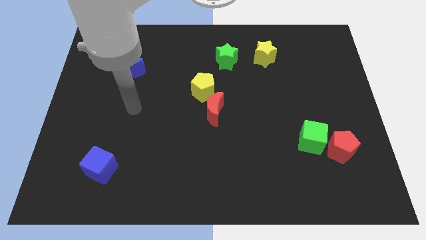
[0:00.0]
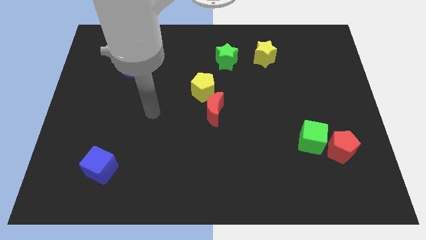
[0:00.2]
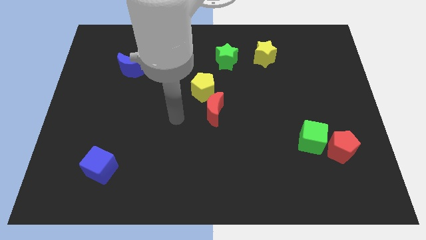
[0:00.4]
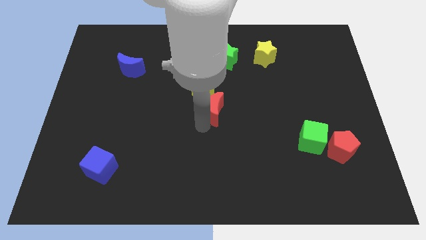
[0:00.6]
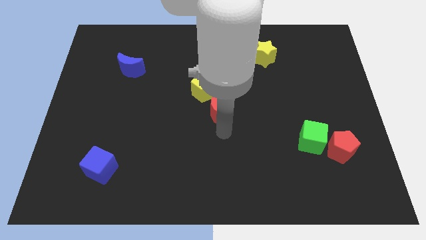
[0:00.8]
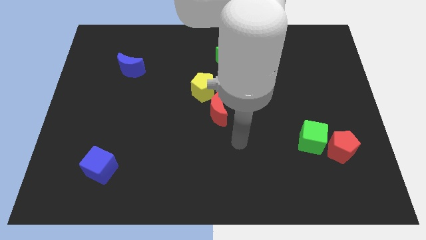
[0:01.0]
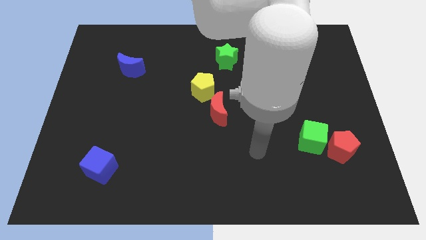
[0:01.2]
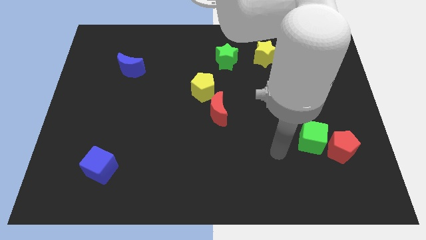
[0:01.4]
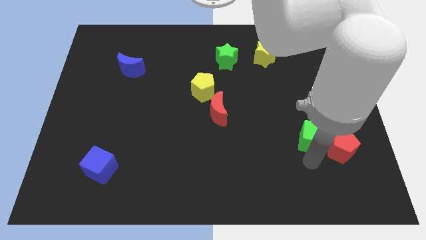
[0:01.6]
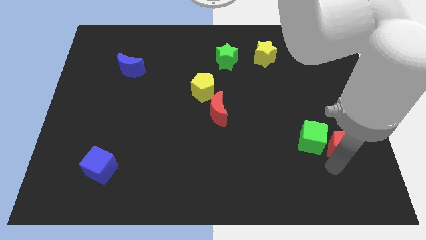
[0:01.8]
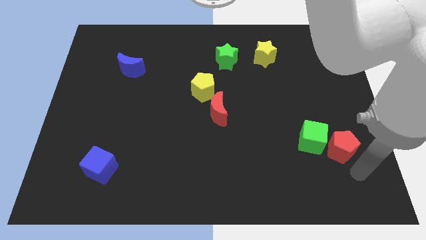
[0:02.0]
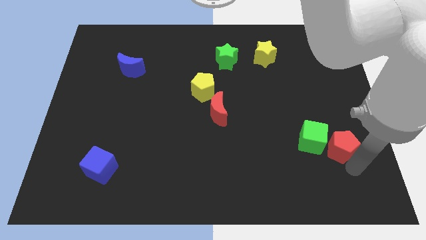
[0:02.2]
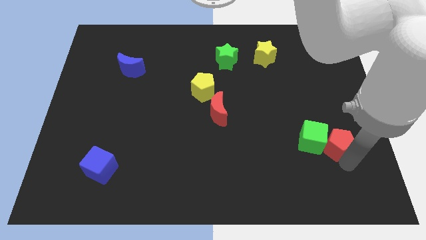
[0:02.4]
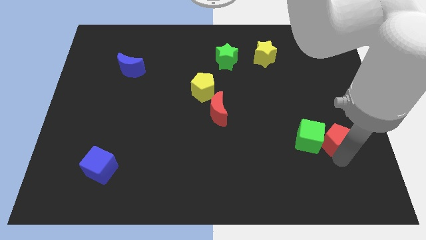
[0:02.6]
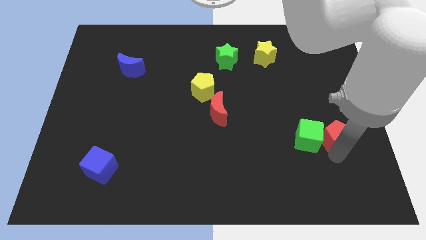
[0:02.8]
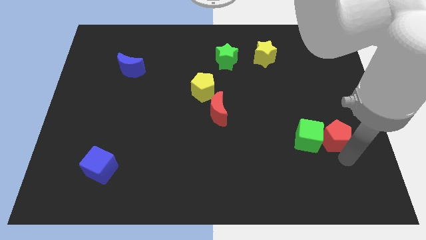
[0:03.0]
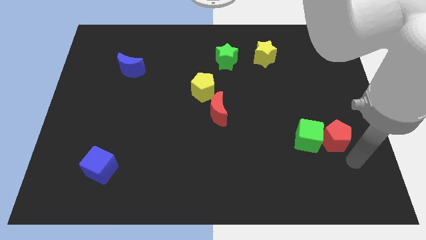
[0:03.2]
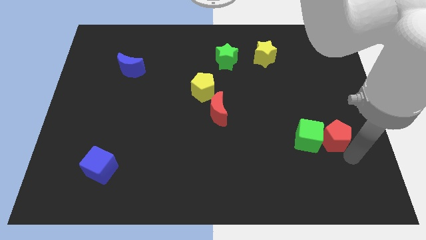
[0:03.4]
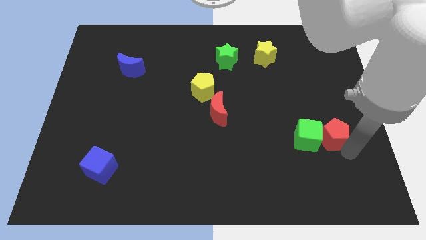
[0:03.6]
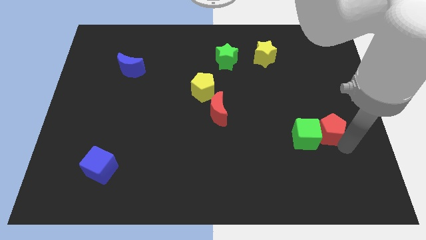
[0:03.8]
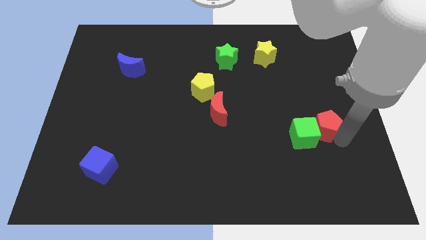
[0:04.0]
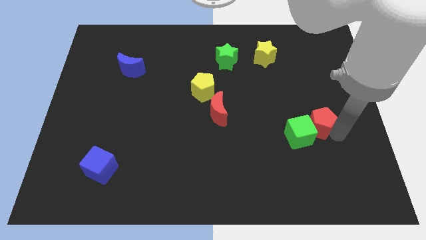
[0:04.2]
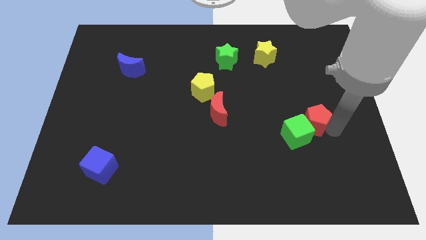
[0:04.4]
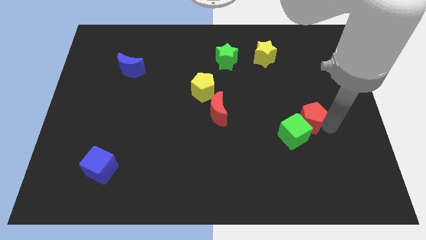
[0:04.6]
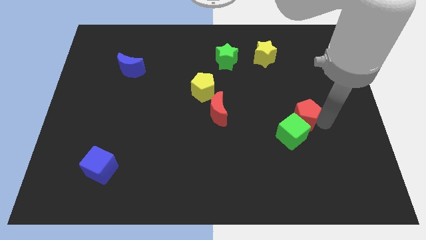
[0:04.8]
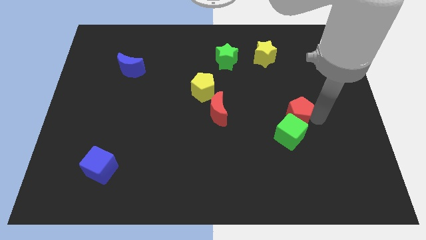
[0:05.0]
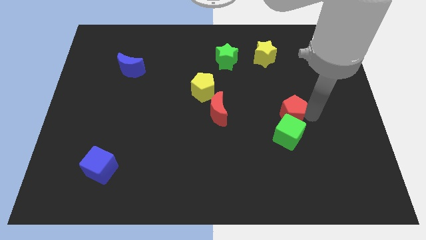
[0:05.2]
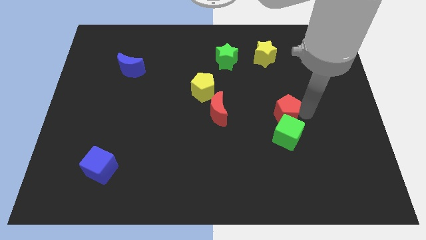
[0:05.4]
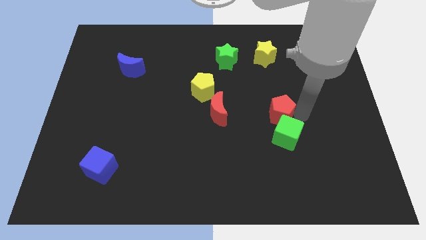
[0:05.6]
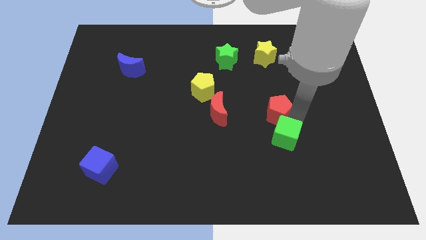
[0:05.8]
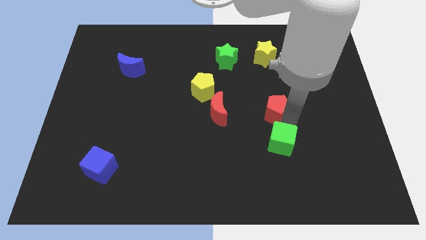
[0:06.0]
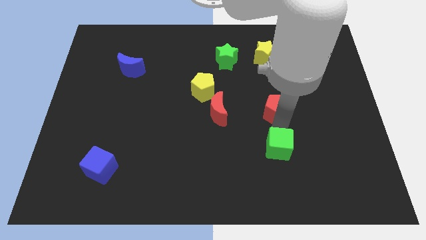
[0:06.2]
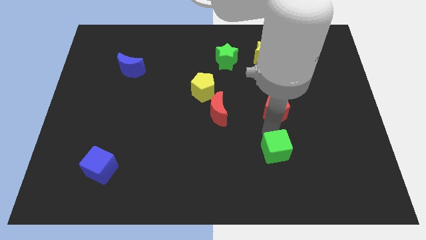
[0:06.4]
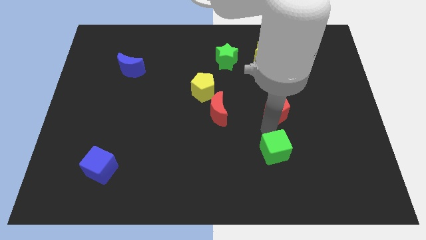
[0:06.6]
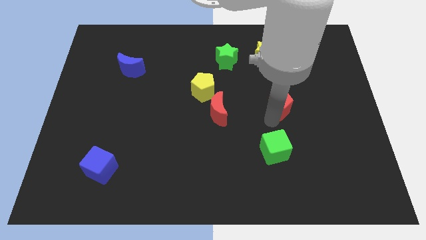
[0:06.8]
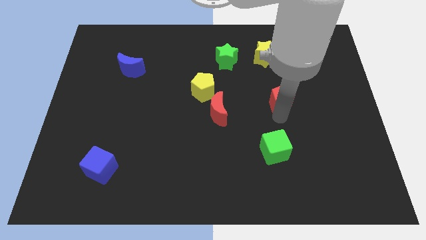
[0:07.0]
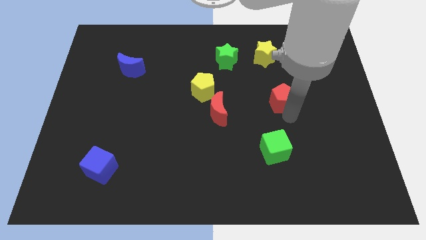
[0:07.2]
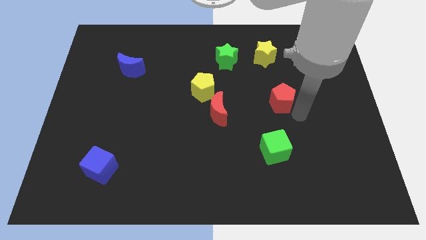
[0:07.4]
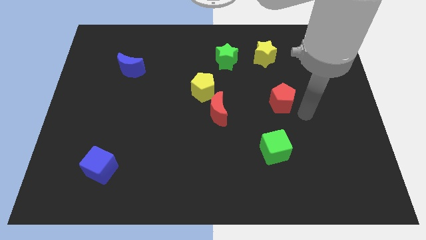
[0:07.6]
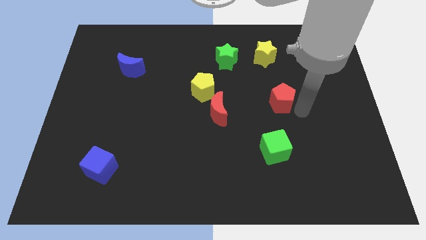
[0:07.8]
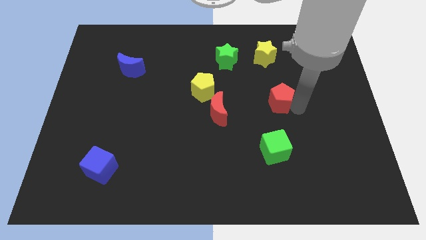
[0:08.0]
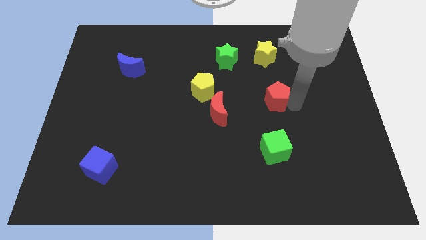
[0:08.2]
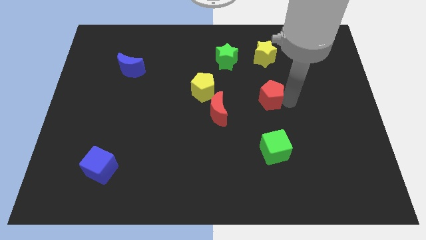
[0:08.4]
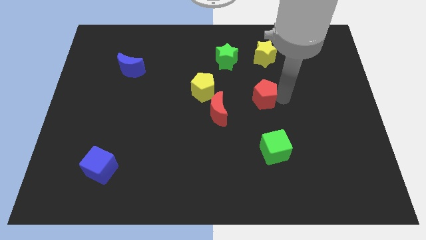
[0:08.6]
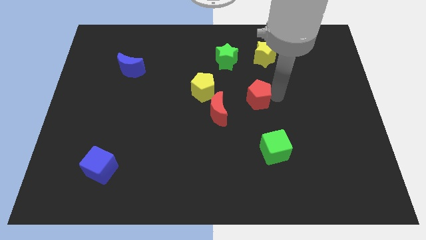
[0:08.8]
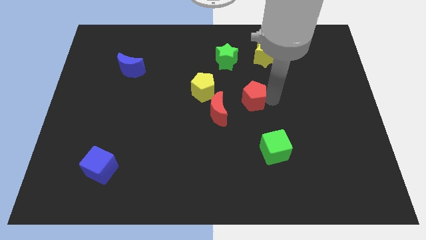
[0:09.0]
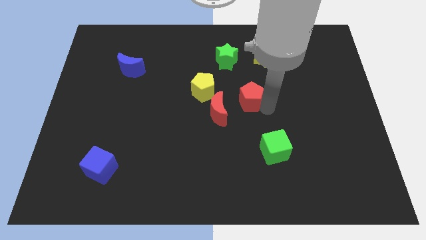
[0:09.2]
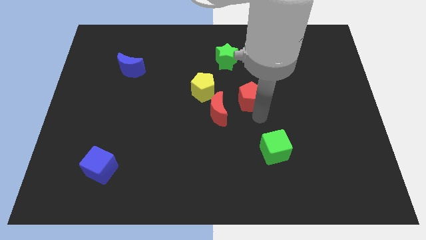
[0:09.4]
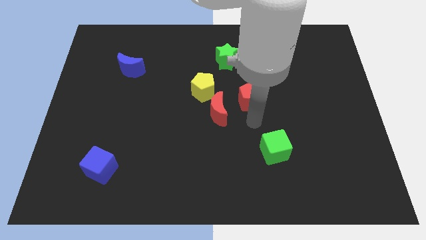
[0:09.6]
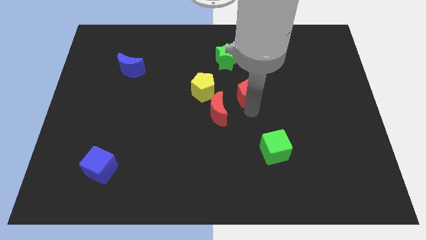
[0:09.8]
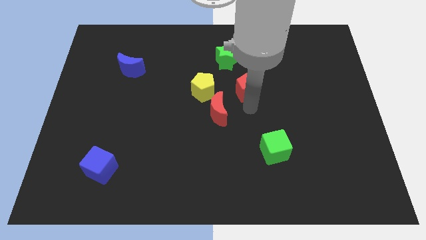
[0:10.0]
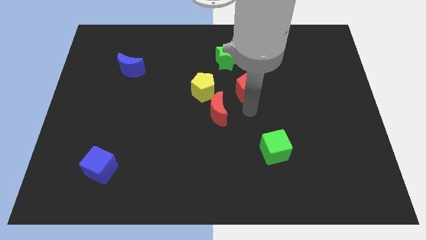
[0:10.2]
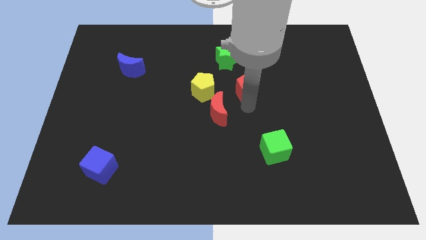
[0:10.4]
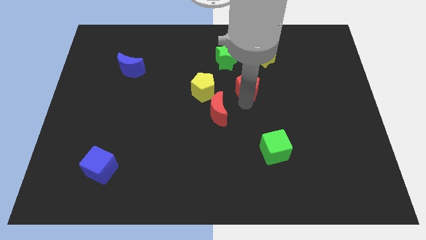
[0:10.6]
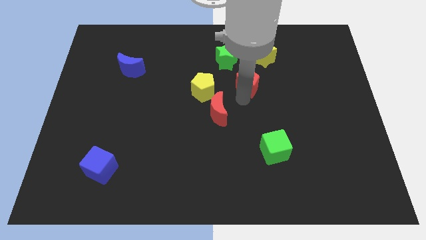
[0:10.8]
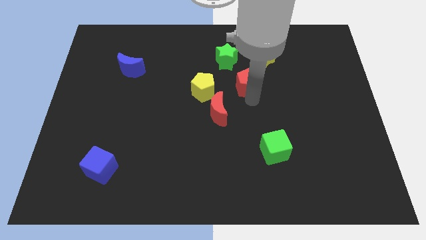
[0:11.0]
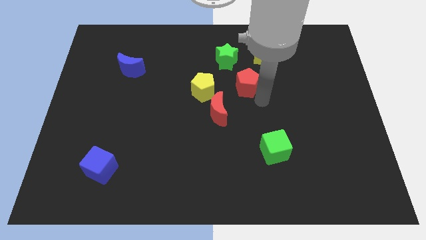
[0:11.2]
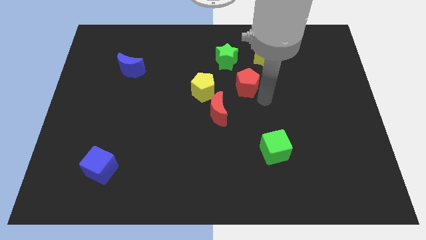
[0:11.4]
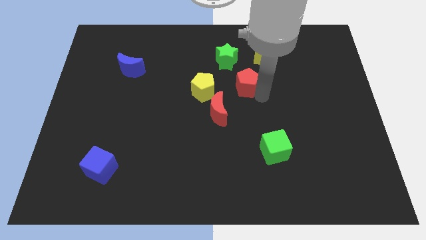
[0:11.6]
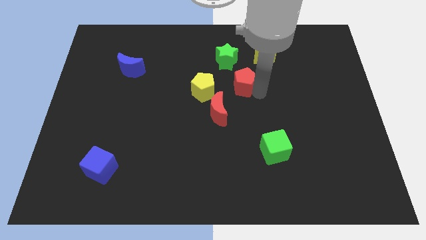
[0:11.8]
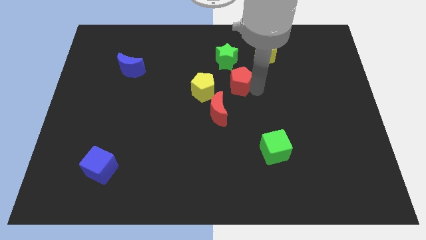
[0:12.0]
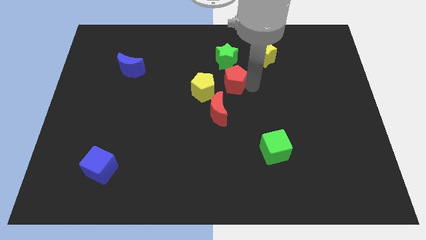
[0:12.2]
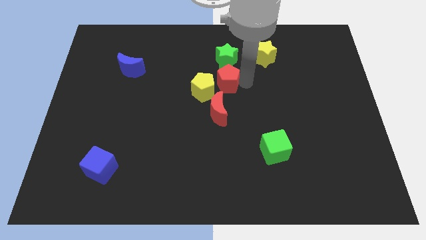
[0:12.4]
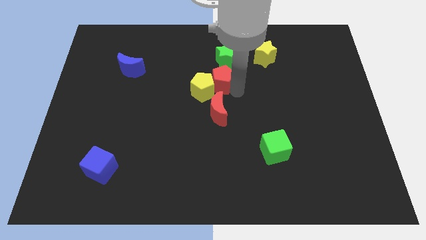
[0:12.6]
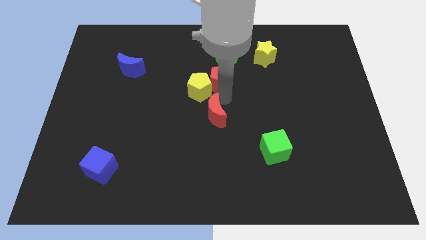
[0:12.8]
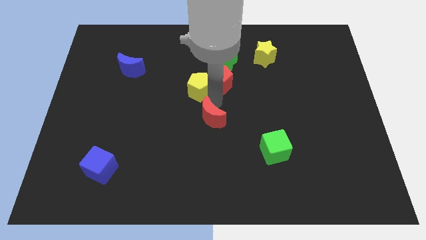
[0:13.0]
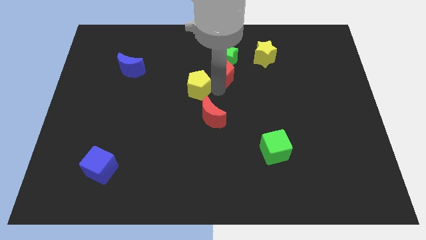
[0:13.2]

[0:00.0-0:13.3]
move the red pentagon to the green star

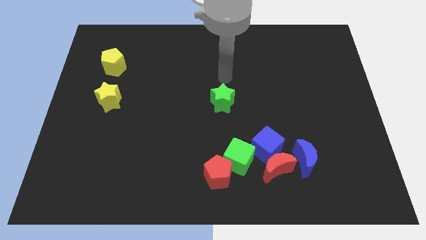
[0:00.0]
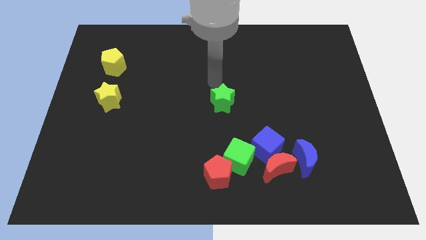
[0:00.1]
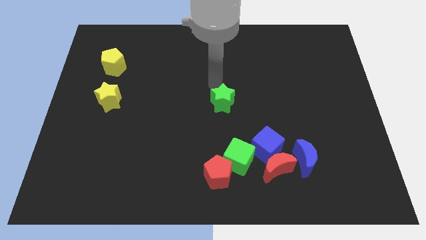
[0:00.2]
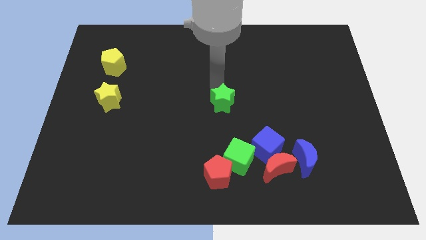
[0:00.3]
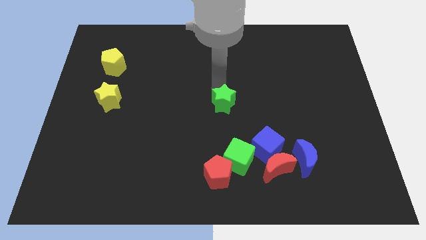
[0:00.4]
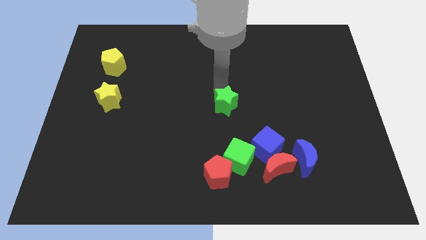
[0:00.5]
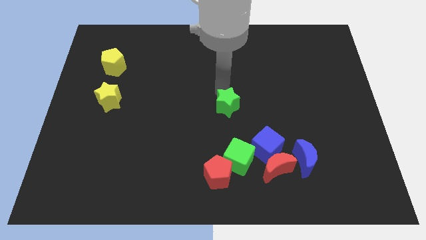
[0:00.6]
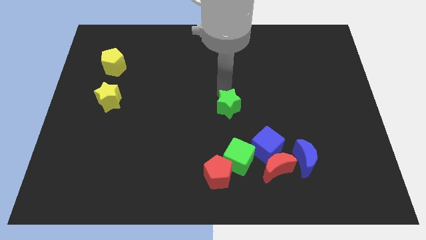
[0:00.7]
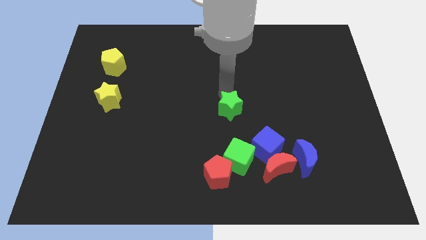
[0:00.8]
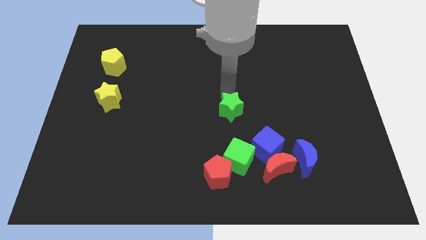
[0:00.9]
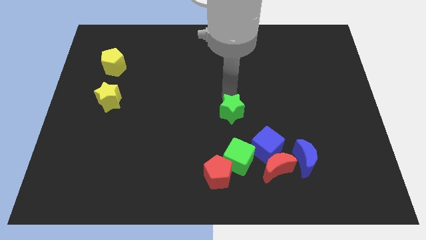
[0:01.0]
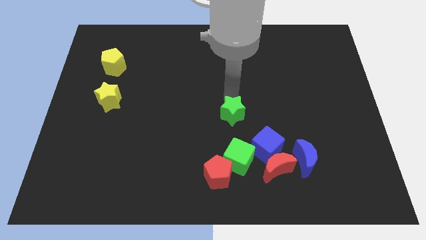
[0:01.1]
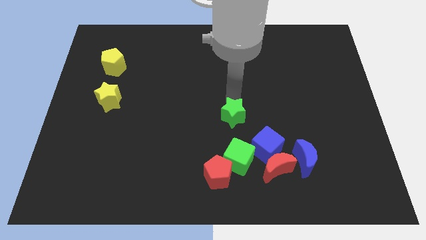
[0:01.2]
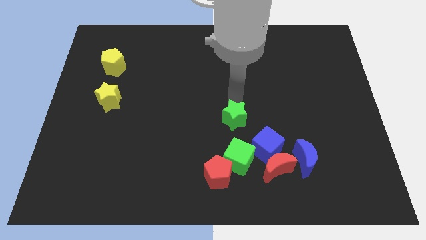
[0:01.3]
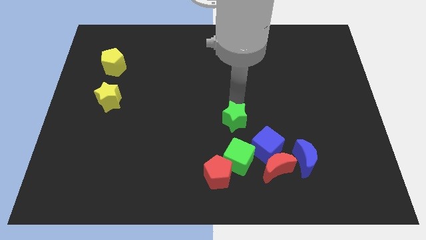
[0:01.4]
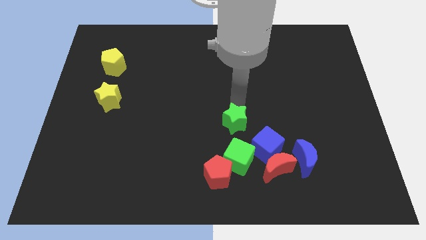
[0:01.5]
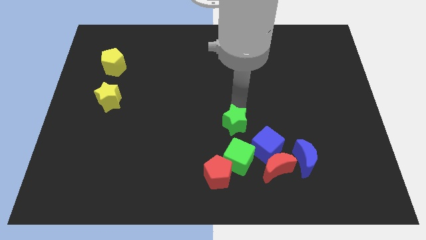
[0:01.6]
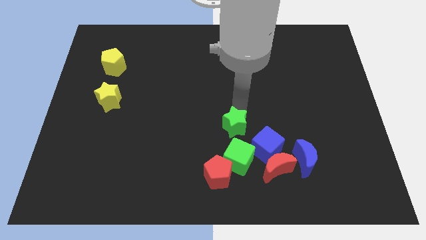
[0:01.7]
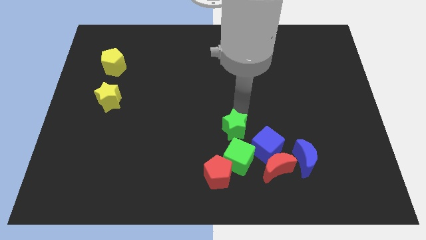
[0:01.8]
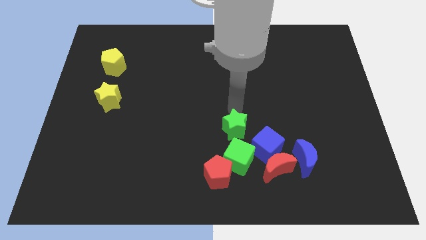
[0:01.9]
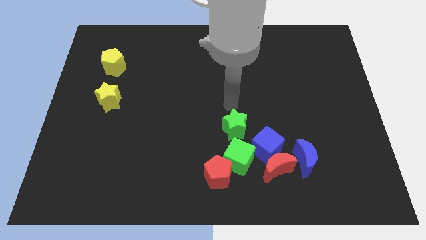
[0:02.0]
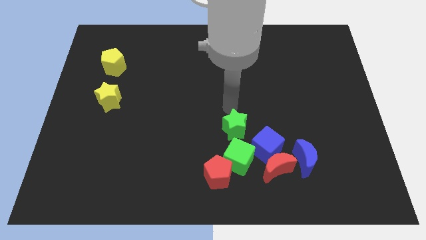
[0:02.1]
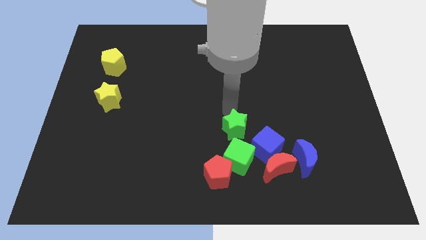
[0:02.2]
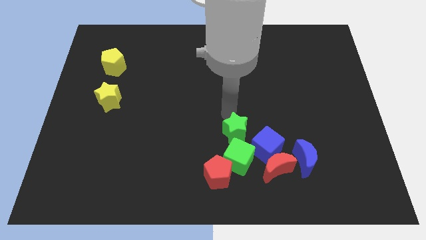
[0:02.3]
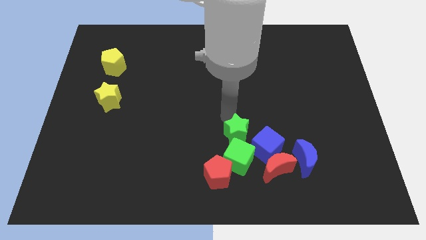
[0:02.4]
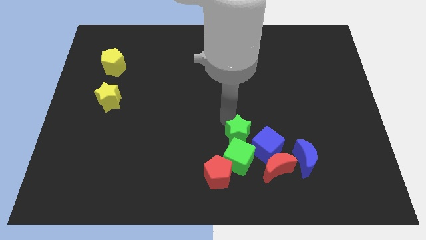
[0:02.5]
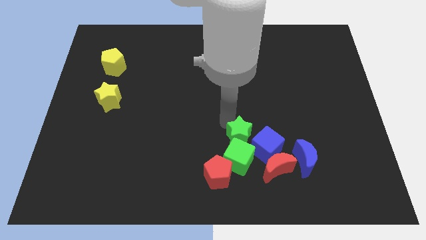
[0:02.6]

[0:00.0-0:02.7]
put the green star close to the green cube
